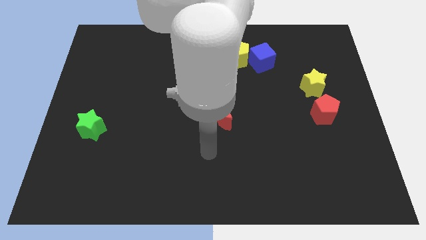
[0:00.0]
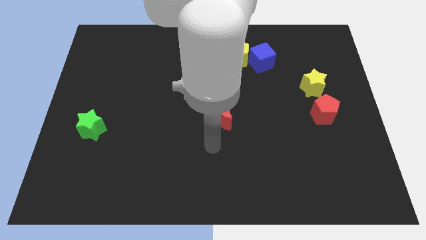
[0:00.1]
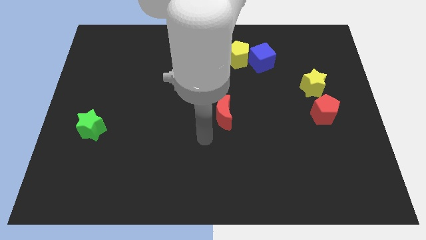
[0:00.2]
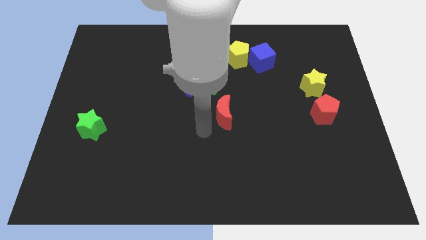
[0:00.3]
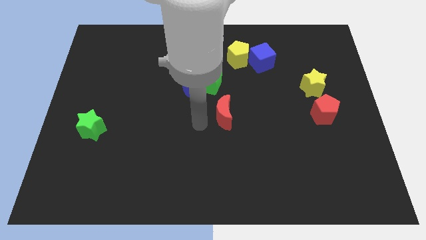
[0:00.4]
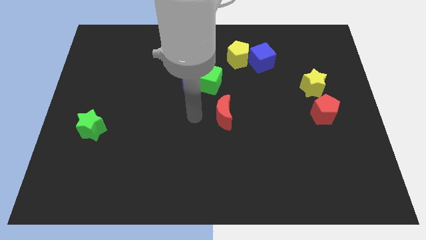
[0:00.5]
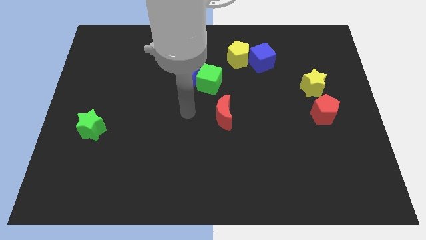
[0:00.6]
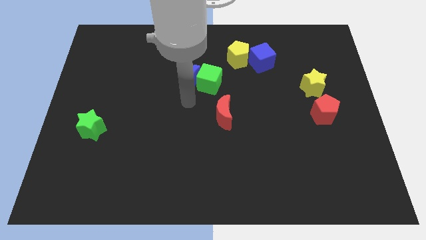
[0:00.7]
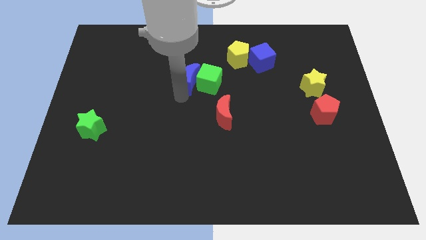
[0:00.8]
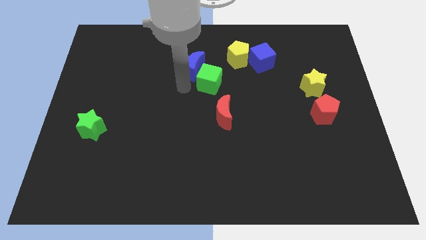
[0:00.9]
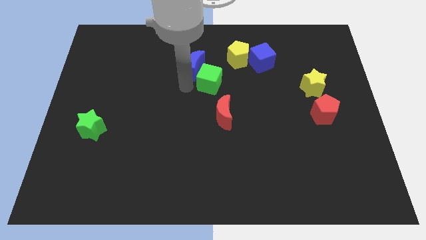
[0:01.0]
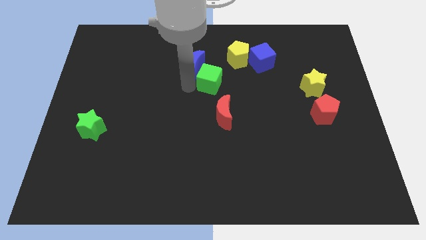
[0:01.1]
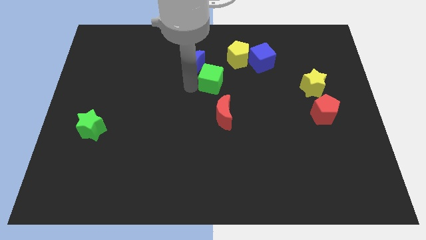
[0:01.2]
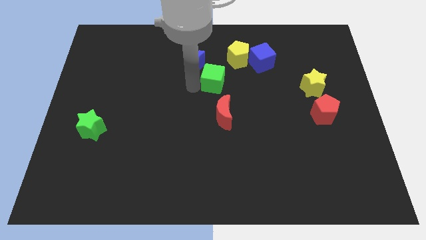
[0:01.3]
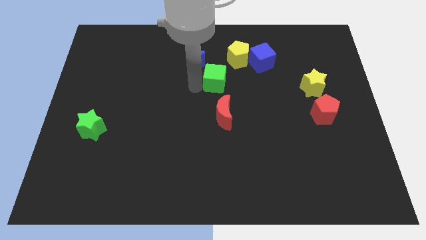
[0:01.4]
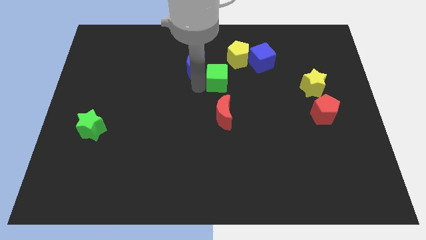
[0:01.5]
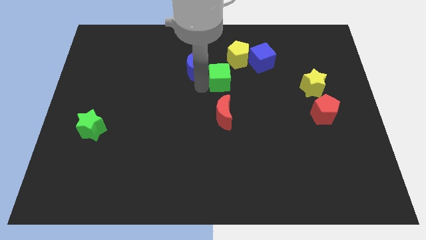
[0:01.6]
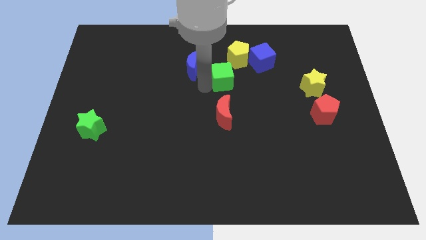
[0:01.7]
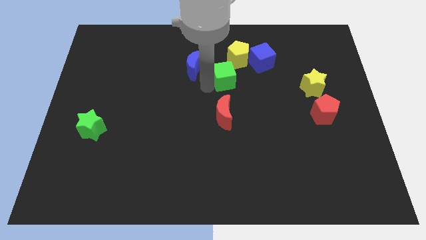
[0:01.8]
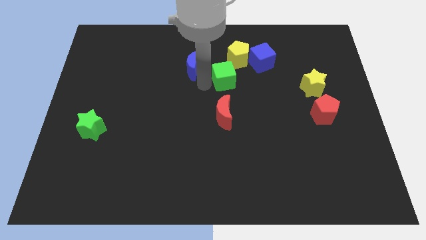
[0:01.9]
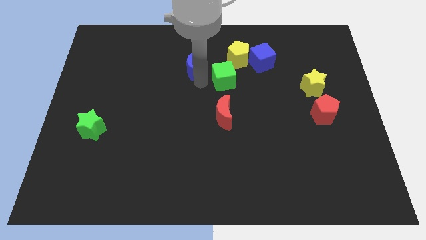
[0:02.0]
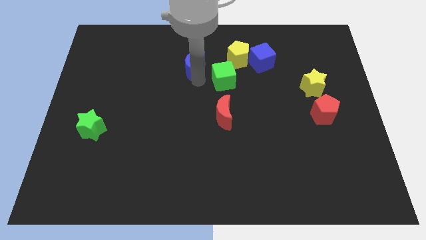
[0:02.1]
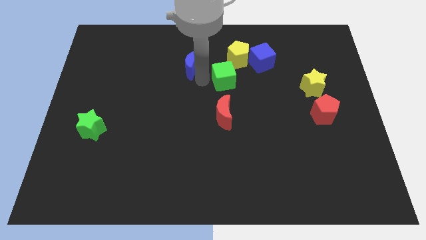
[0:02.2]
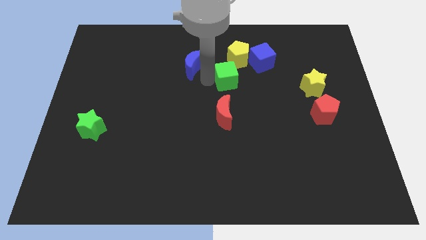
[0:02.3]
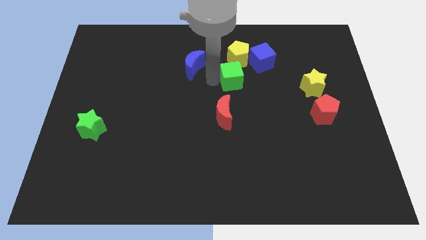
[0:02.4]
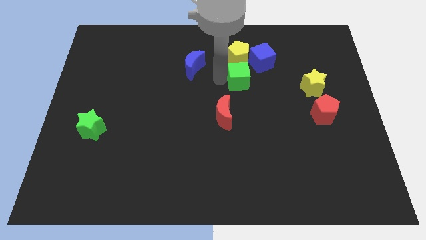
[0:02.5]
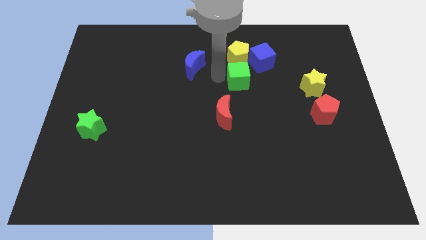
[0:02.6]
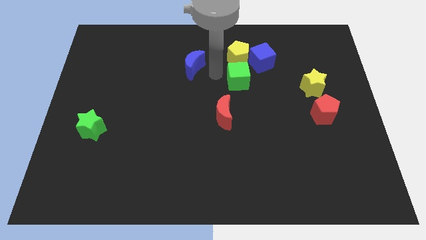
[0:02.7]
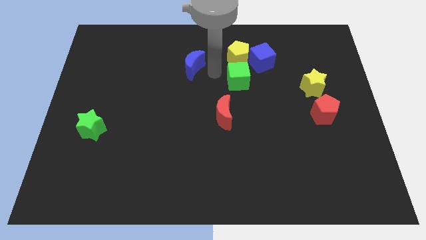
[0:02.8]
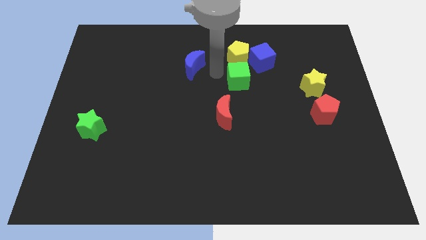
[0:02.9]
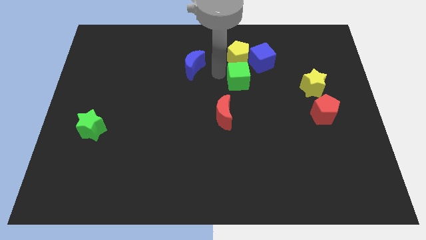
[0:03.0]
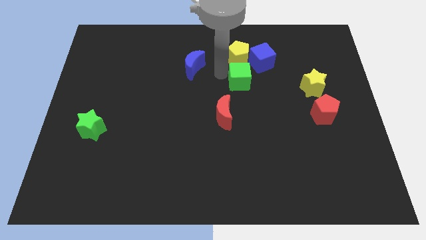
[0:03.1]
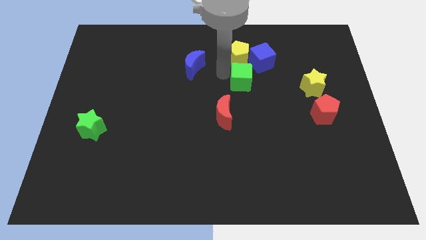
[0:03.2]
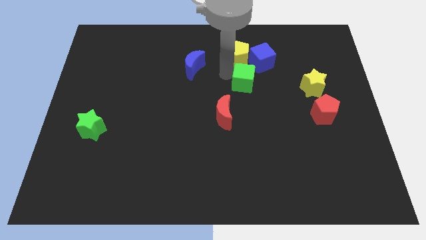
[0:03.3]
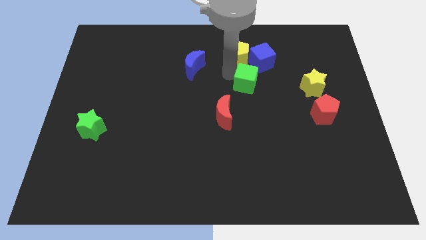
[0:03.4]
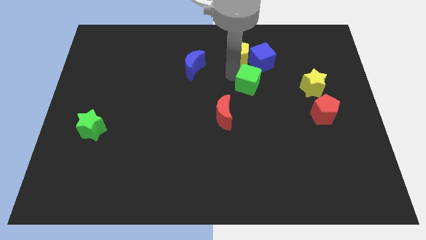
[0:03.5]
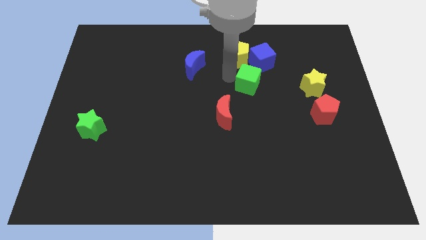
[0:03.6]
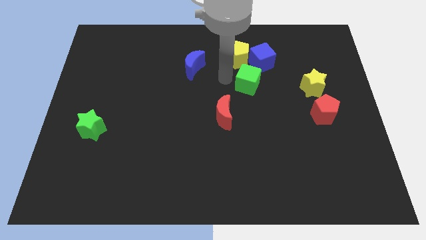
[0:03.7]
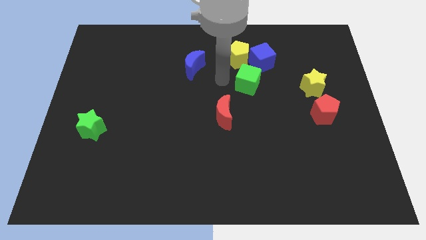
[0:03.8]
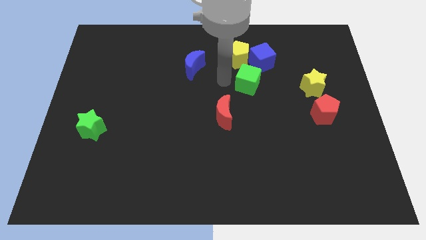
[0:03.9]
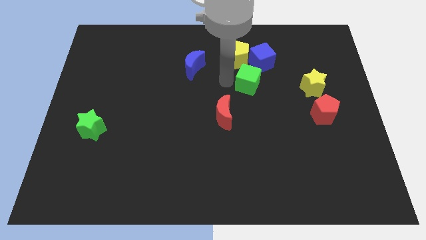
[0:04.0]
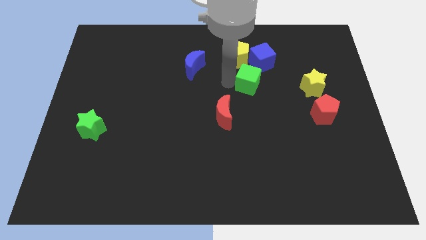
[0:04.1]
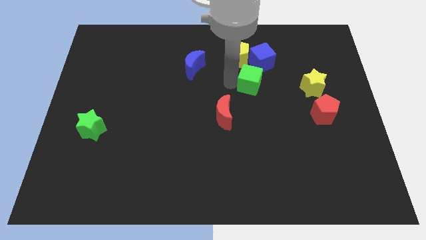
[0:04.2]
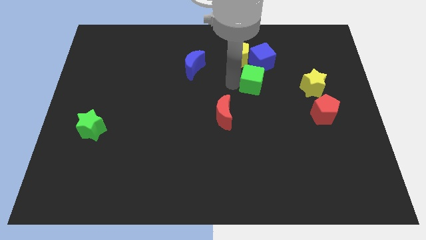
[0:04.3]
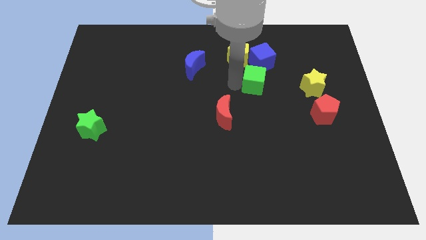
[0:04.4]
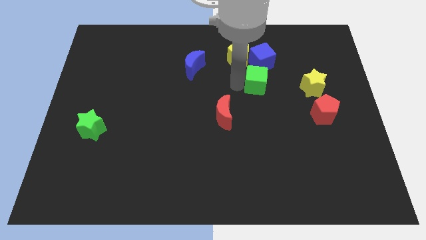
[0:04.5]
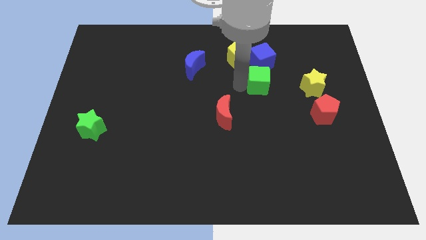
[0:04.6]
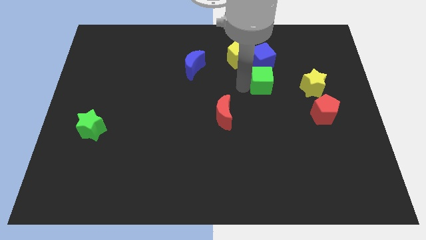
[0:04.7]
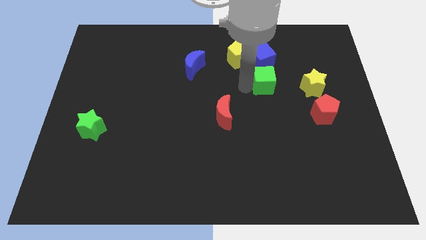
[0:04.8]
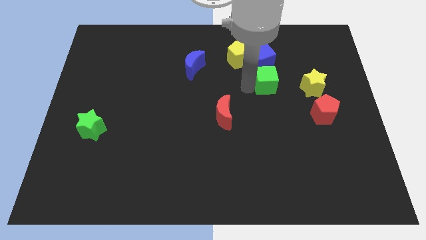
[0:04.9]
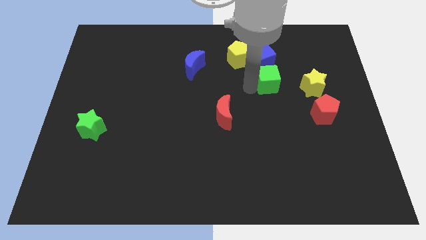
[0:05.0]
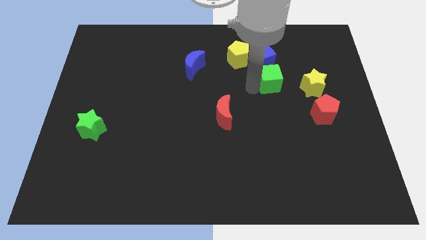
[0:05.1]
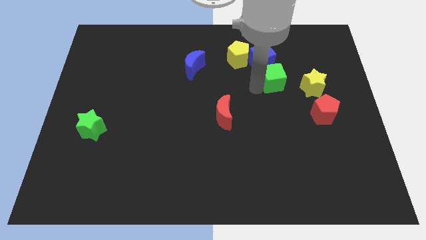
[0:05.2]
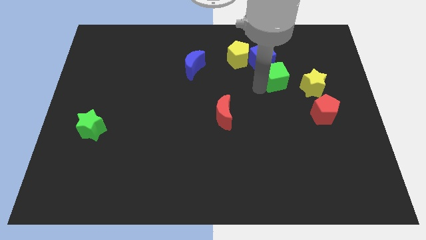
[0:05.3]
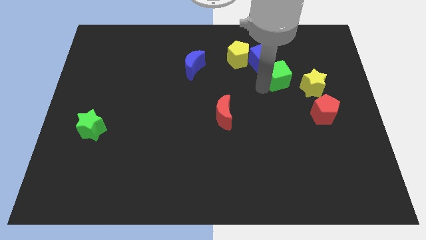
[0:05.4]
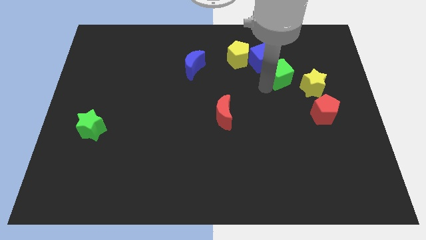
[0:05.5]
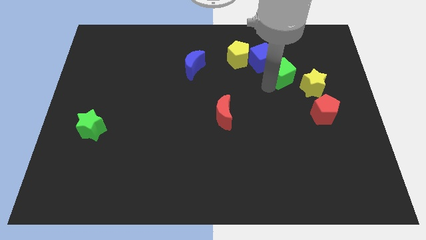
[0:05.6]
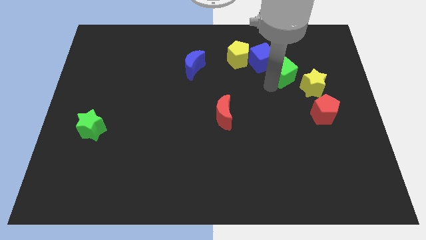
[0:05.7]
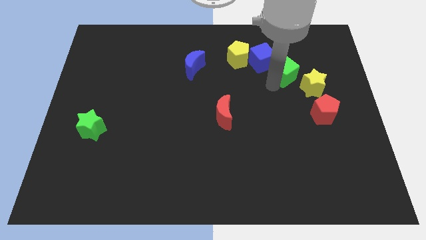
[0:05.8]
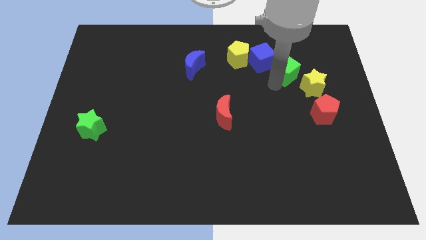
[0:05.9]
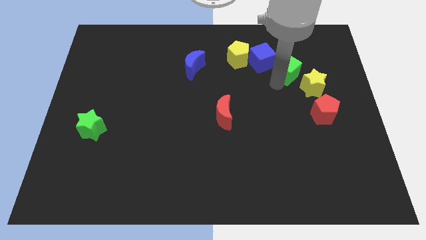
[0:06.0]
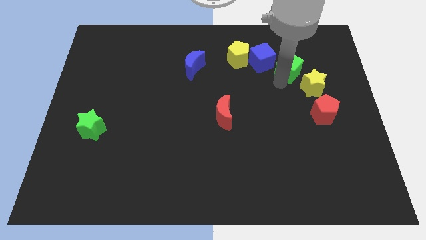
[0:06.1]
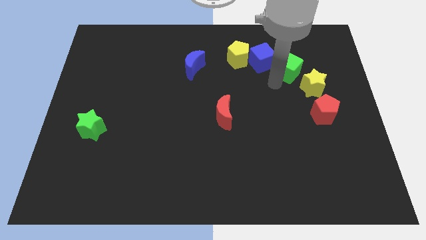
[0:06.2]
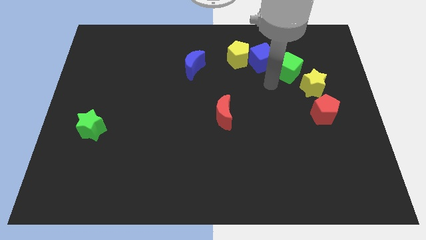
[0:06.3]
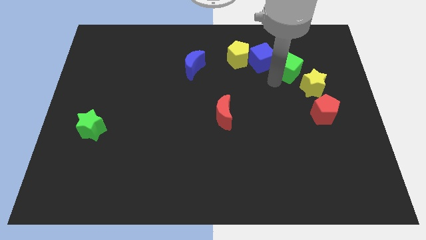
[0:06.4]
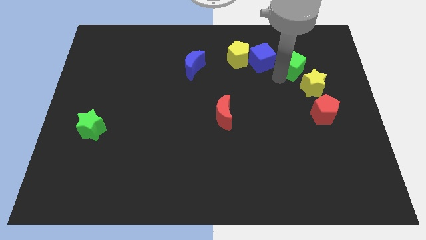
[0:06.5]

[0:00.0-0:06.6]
move the green cube above the yellow star

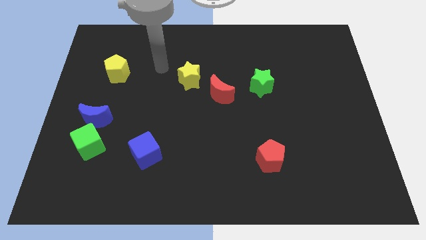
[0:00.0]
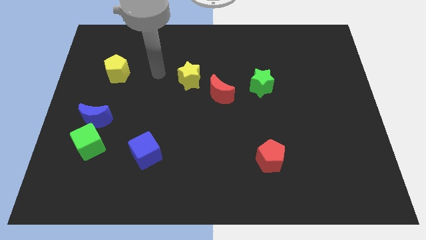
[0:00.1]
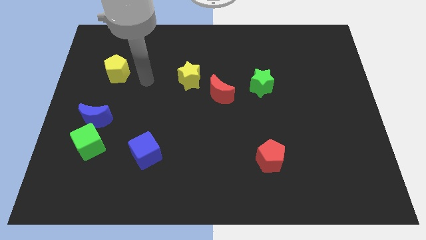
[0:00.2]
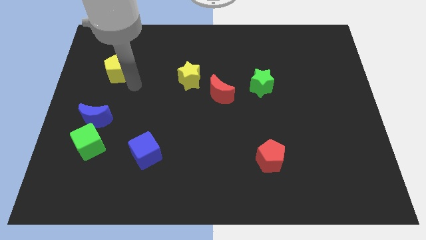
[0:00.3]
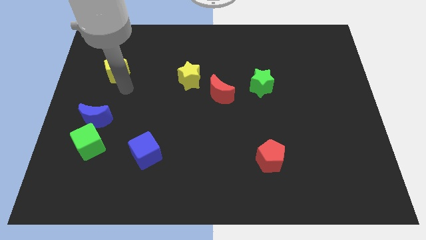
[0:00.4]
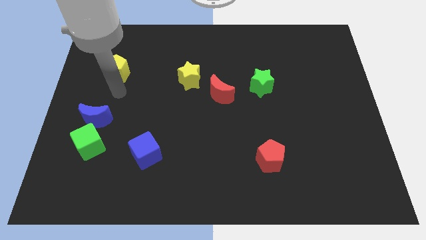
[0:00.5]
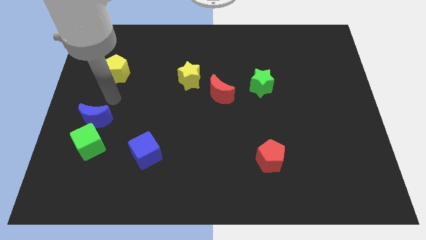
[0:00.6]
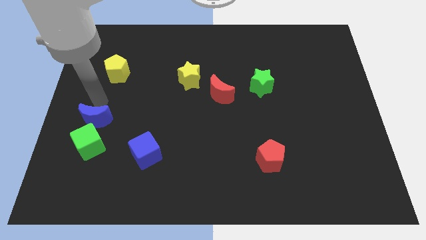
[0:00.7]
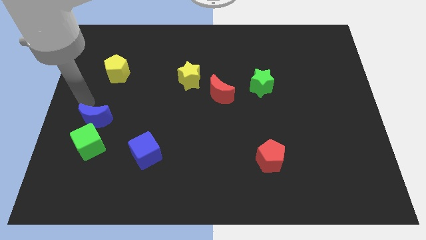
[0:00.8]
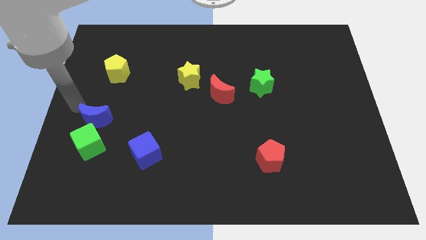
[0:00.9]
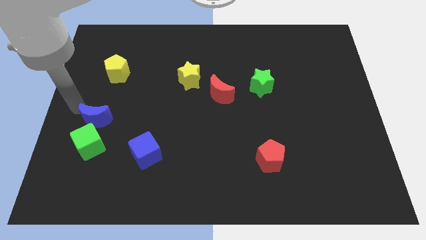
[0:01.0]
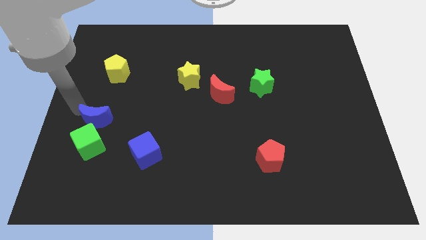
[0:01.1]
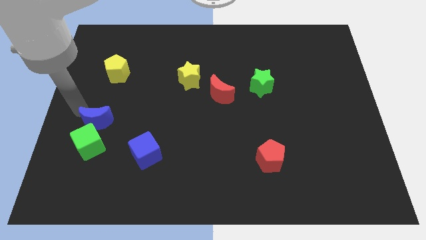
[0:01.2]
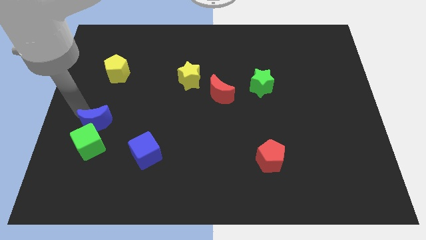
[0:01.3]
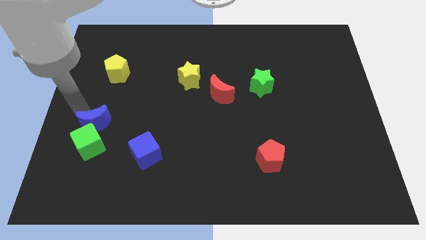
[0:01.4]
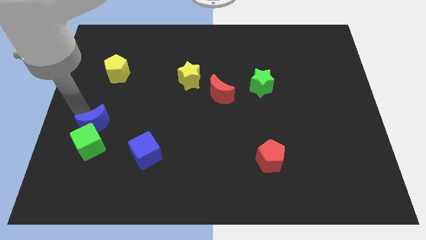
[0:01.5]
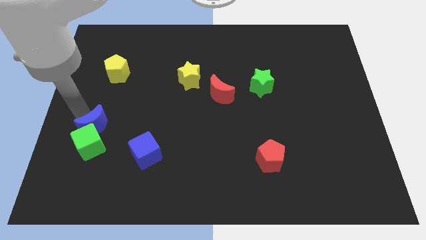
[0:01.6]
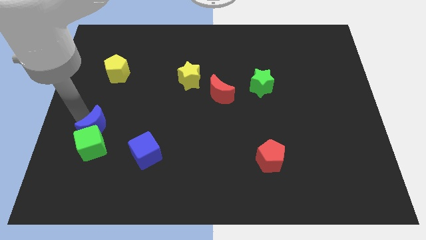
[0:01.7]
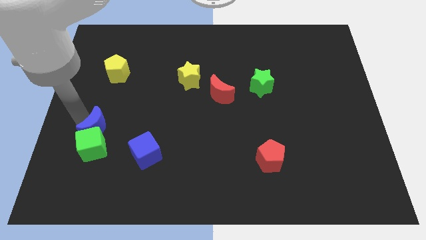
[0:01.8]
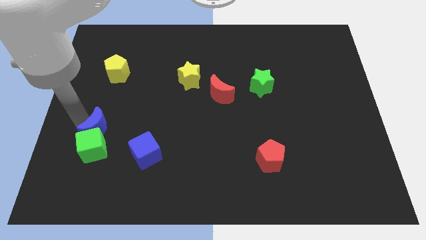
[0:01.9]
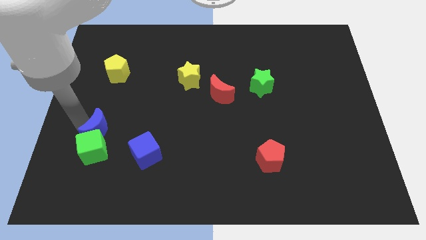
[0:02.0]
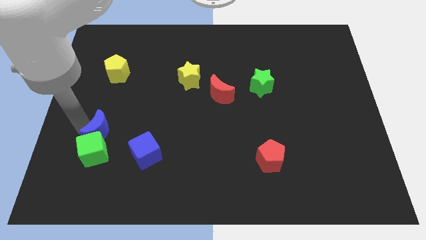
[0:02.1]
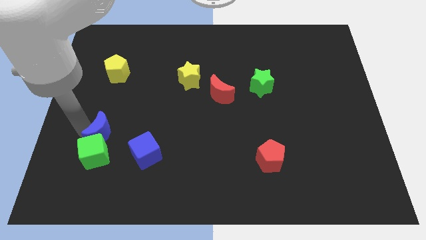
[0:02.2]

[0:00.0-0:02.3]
move the blue moon to the top left side of the blue cube
